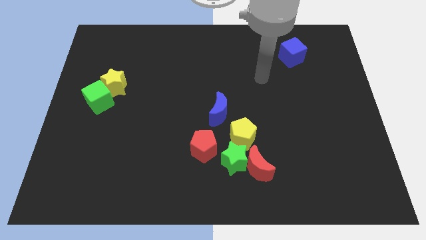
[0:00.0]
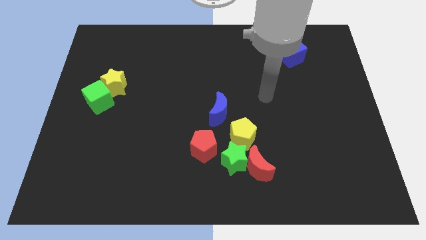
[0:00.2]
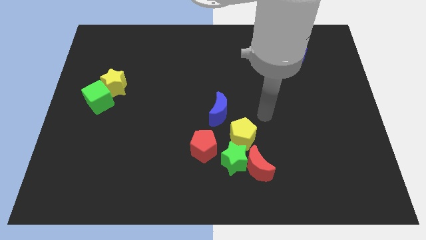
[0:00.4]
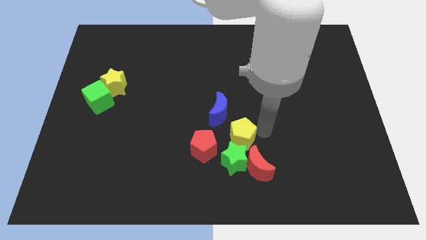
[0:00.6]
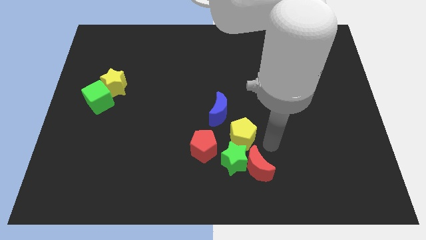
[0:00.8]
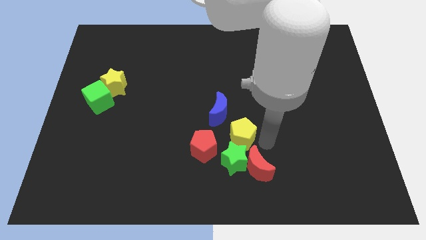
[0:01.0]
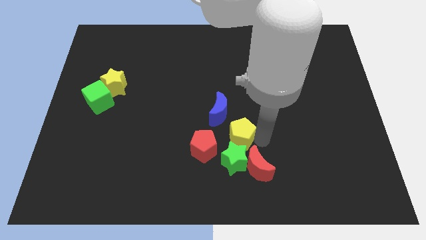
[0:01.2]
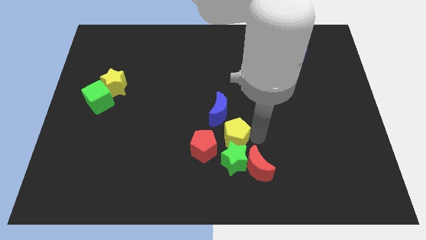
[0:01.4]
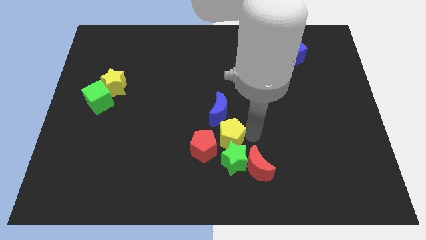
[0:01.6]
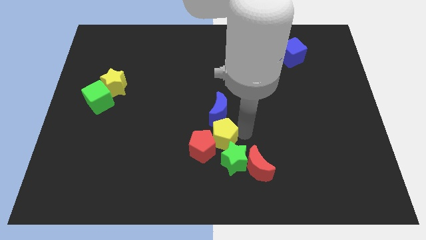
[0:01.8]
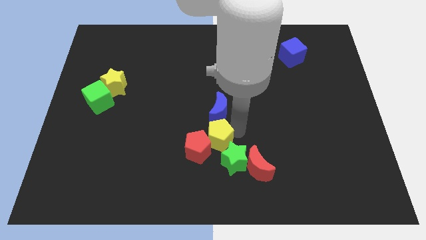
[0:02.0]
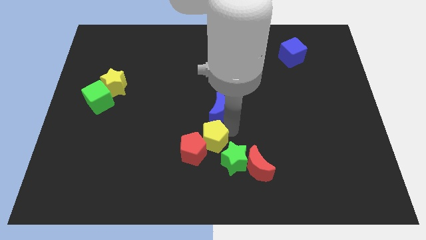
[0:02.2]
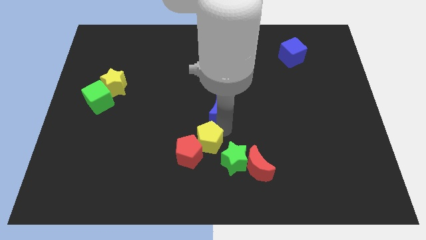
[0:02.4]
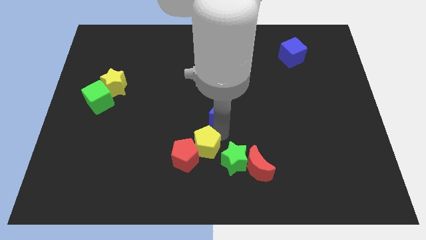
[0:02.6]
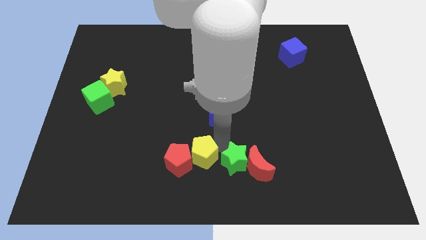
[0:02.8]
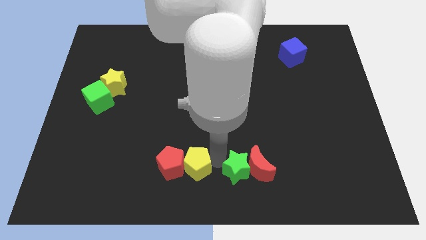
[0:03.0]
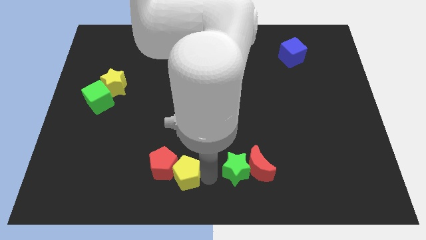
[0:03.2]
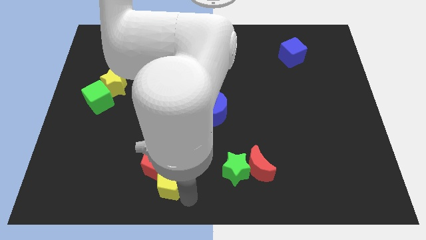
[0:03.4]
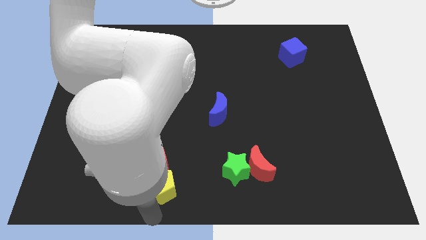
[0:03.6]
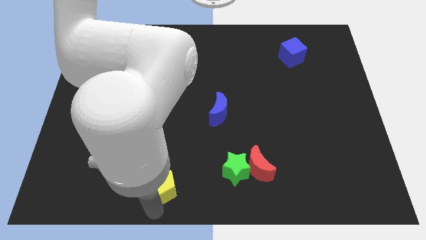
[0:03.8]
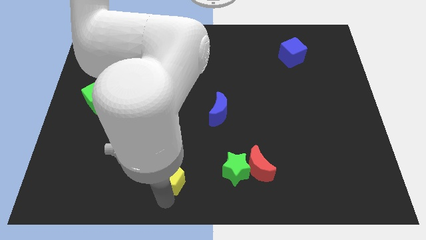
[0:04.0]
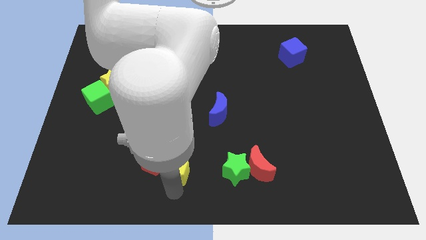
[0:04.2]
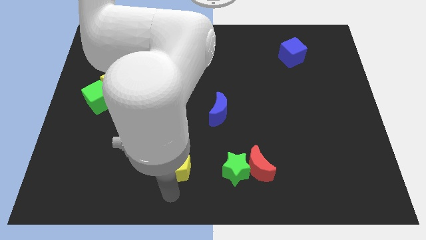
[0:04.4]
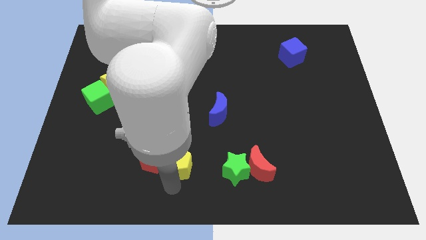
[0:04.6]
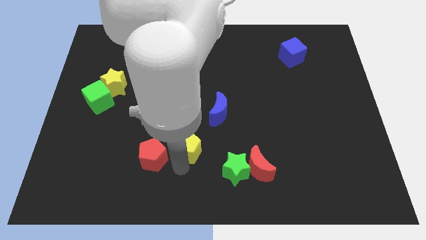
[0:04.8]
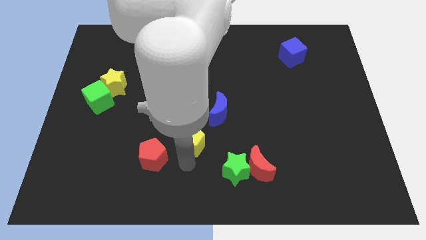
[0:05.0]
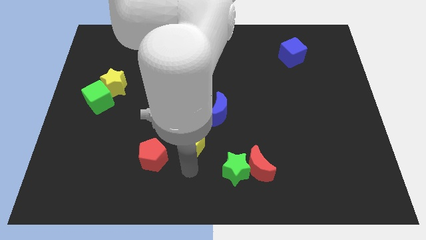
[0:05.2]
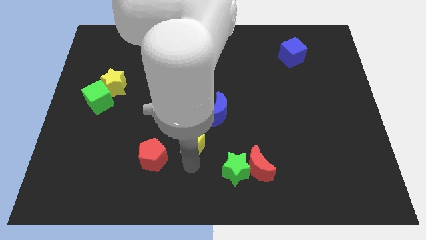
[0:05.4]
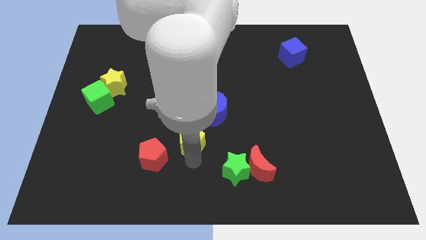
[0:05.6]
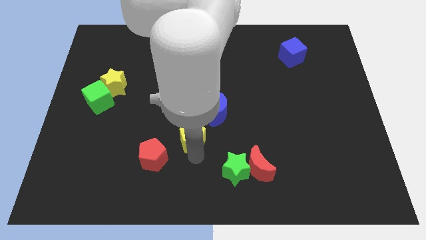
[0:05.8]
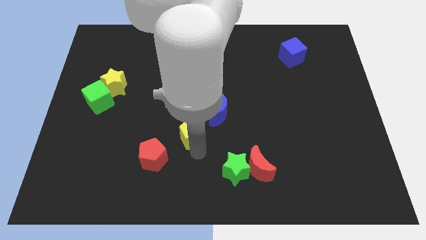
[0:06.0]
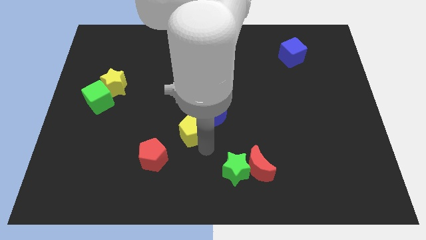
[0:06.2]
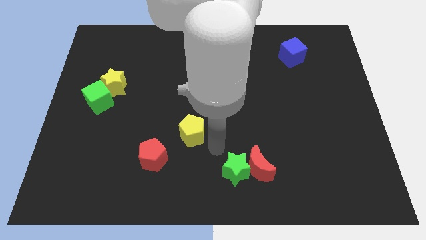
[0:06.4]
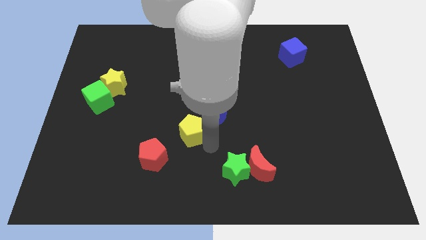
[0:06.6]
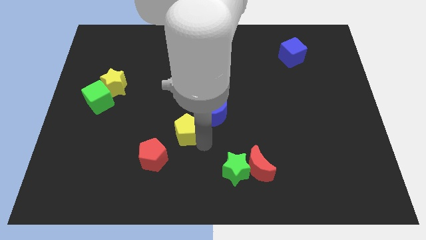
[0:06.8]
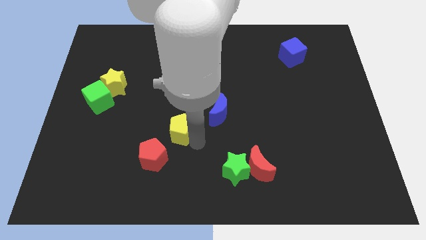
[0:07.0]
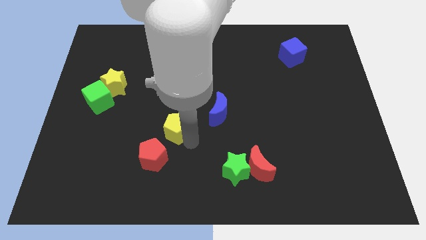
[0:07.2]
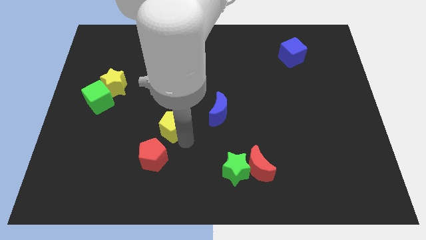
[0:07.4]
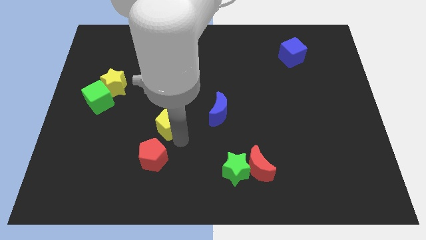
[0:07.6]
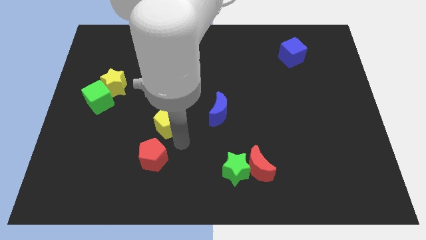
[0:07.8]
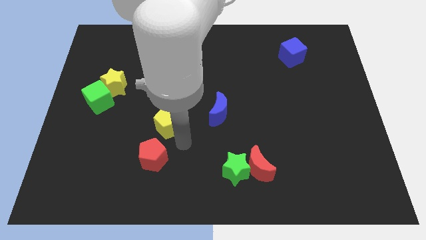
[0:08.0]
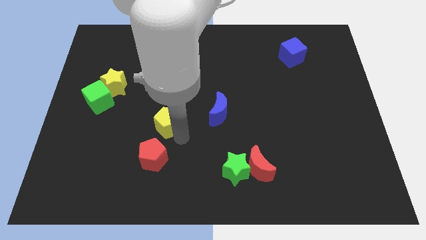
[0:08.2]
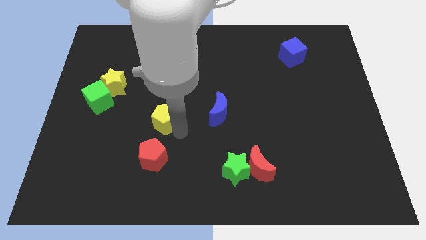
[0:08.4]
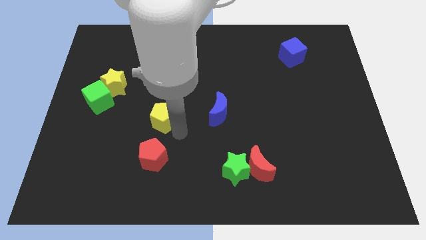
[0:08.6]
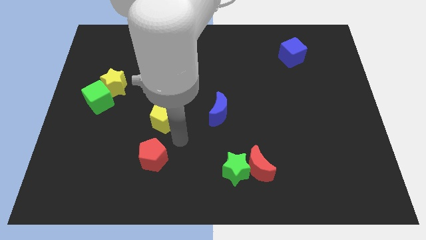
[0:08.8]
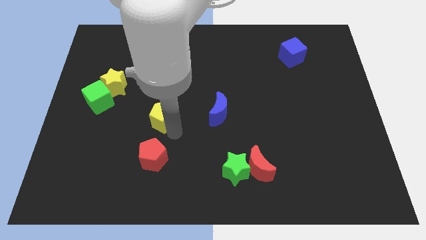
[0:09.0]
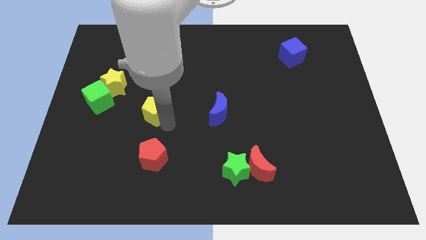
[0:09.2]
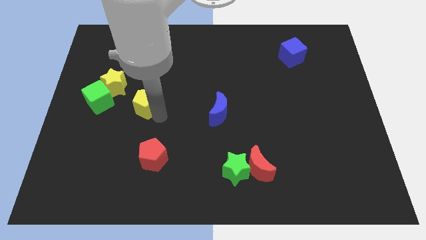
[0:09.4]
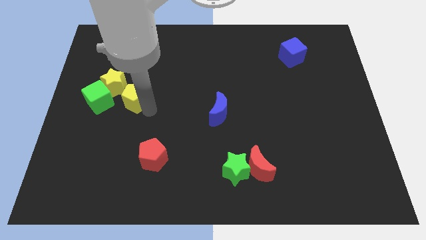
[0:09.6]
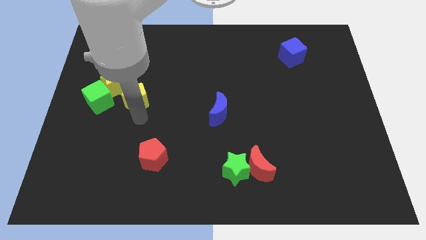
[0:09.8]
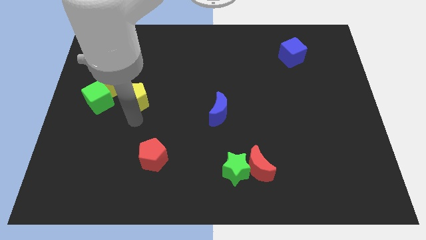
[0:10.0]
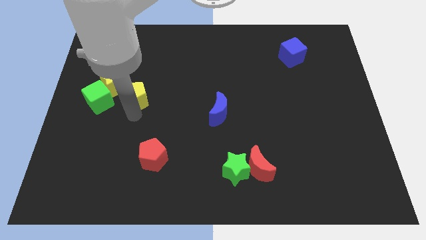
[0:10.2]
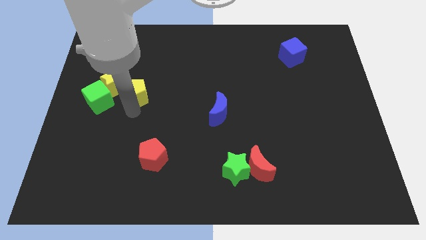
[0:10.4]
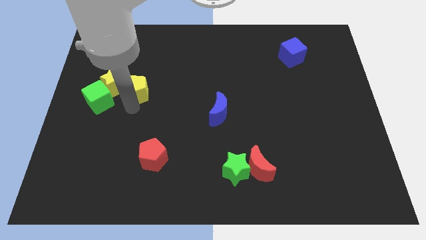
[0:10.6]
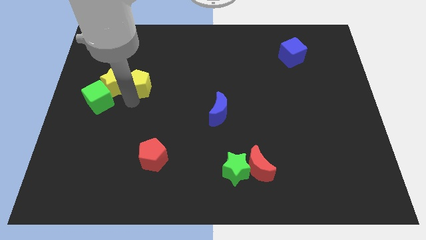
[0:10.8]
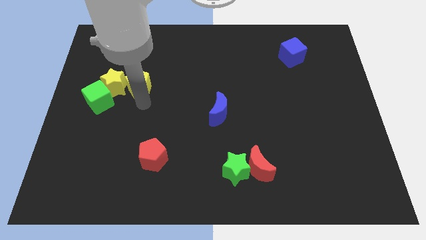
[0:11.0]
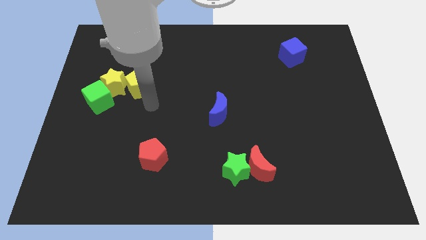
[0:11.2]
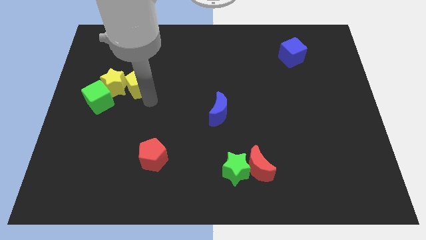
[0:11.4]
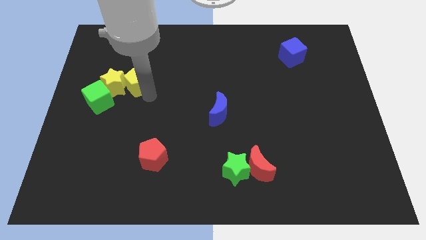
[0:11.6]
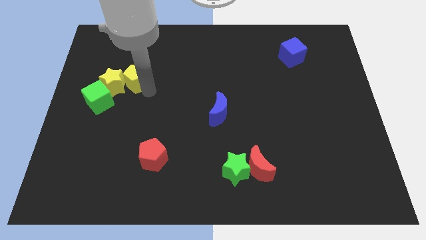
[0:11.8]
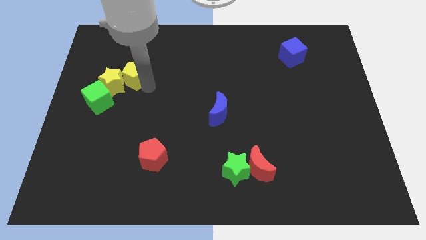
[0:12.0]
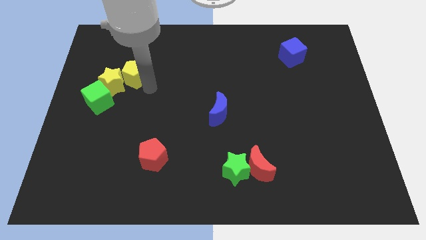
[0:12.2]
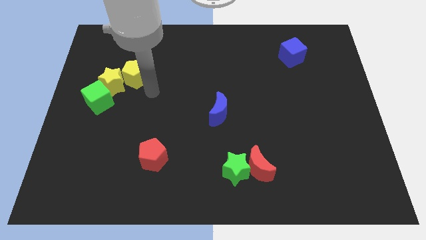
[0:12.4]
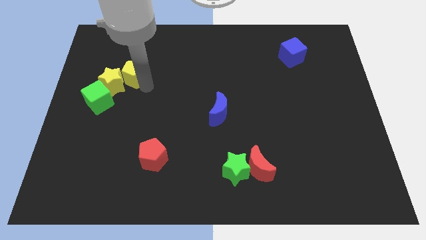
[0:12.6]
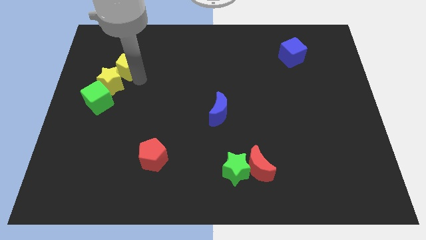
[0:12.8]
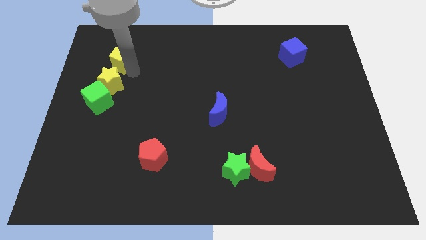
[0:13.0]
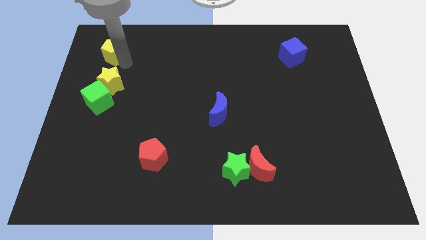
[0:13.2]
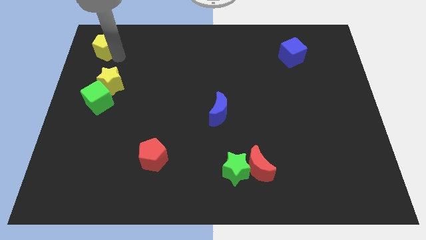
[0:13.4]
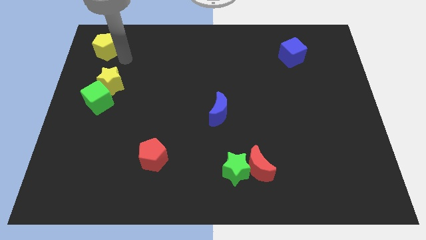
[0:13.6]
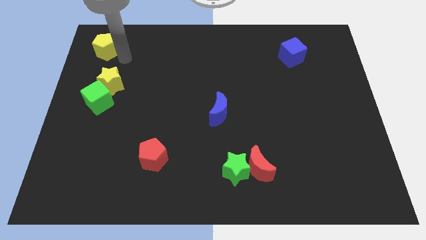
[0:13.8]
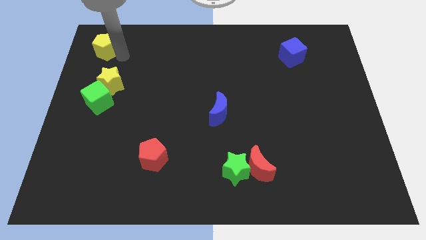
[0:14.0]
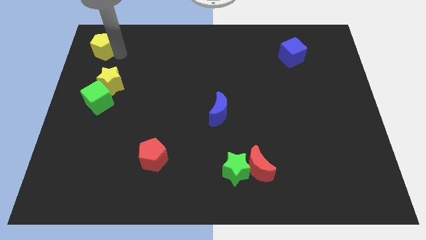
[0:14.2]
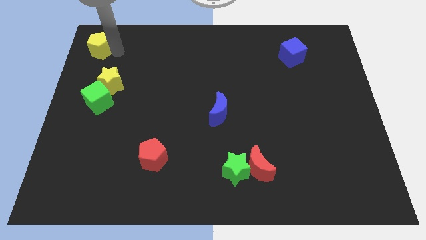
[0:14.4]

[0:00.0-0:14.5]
put the yellow pentagon to the top left of the board
